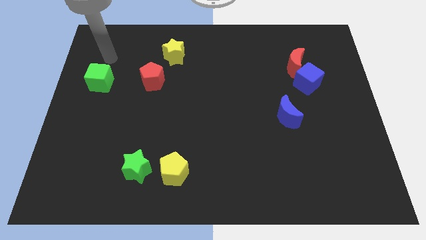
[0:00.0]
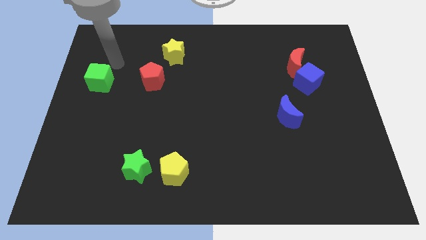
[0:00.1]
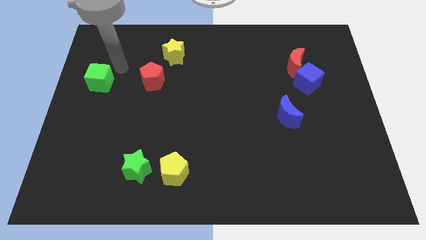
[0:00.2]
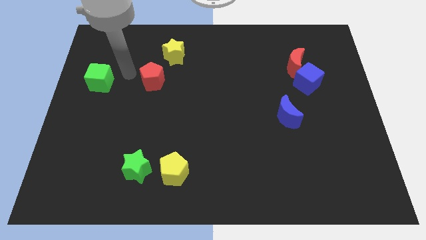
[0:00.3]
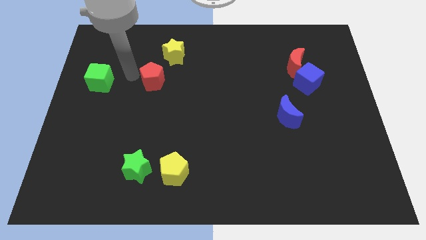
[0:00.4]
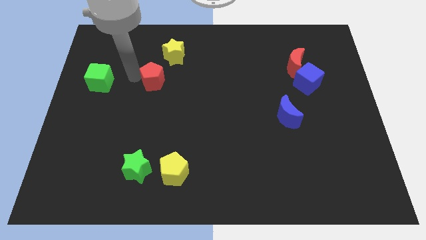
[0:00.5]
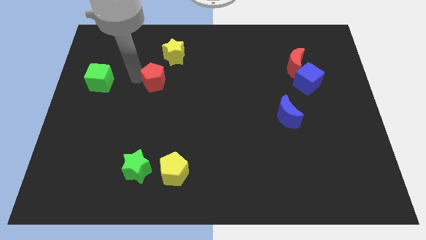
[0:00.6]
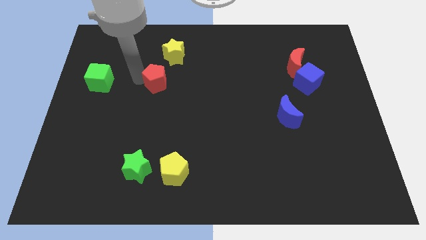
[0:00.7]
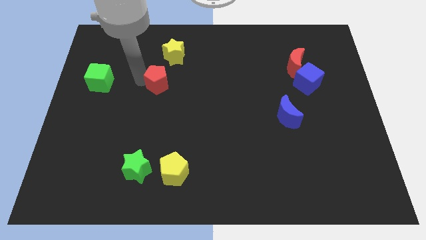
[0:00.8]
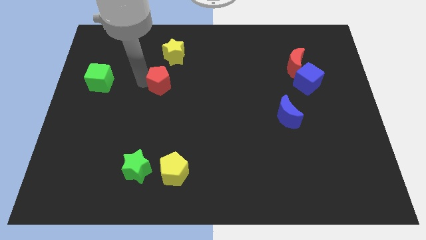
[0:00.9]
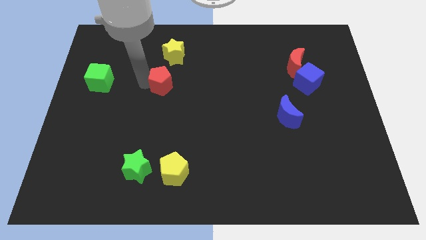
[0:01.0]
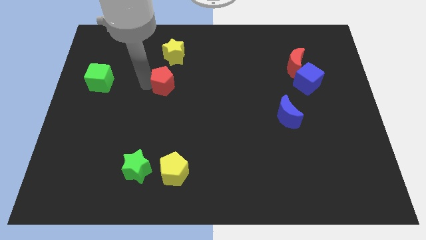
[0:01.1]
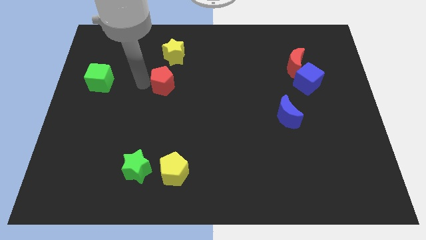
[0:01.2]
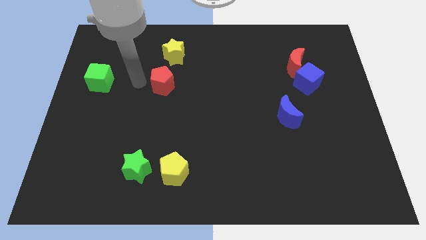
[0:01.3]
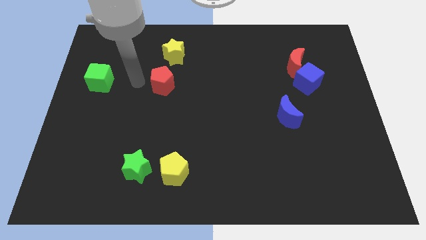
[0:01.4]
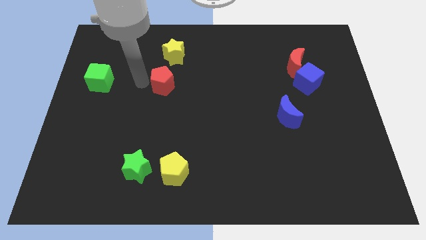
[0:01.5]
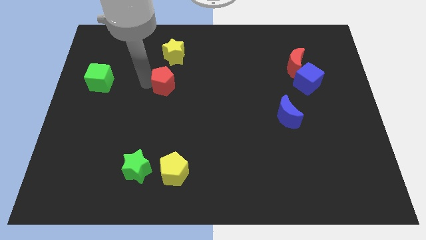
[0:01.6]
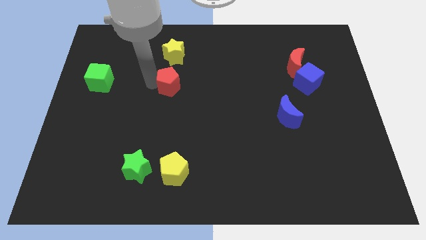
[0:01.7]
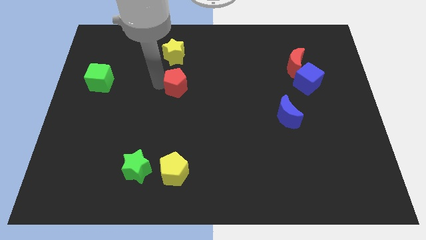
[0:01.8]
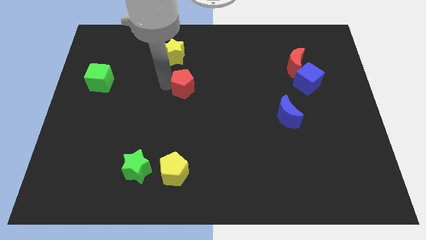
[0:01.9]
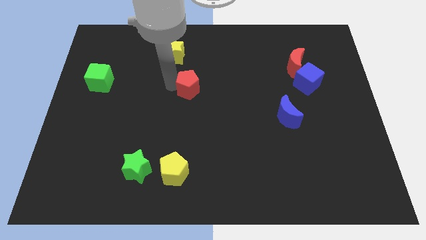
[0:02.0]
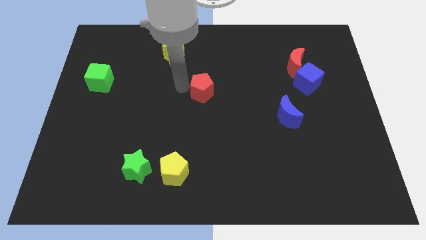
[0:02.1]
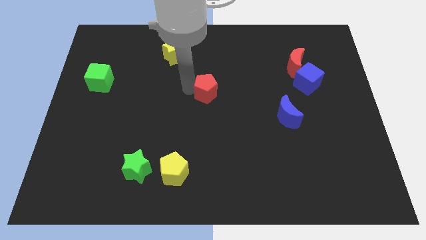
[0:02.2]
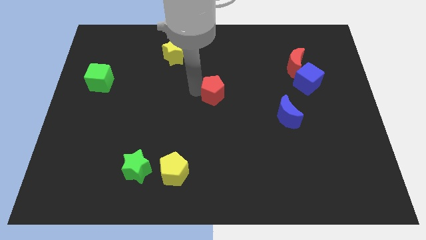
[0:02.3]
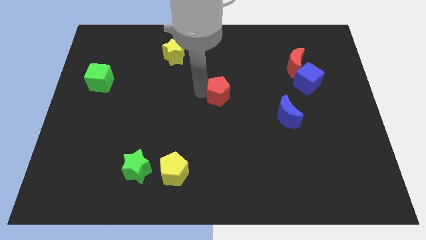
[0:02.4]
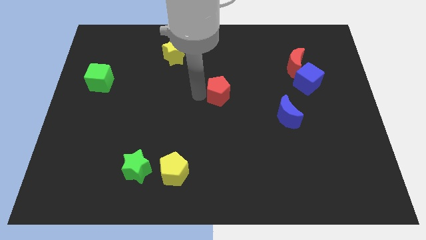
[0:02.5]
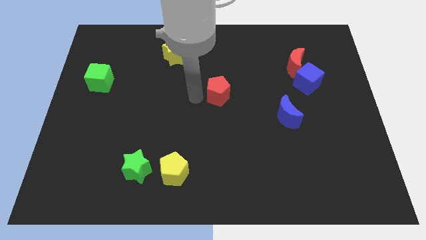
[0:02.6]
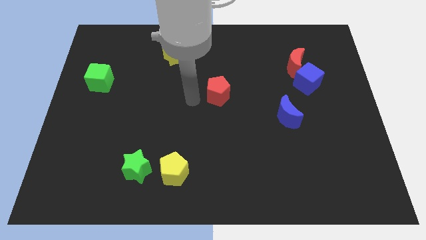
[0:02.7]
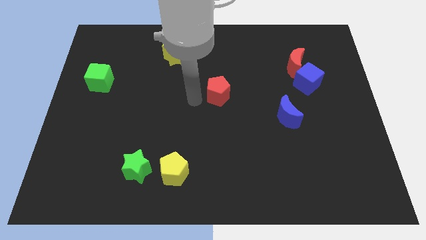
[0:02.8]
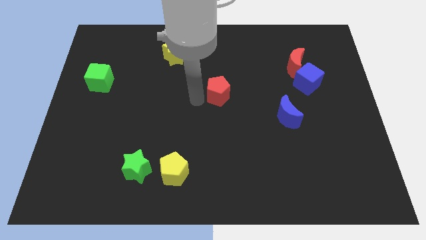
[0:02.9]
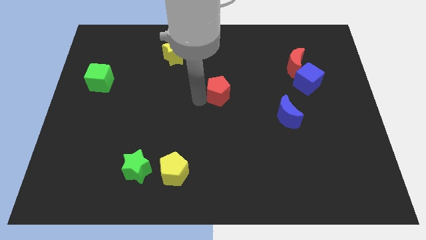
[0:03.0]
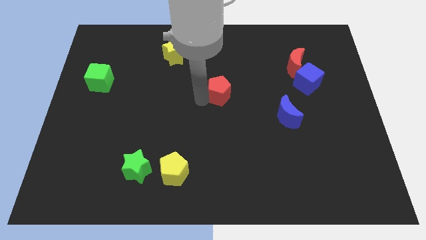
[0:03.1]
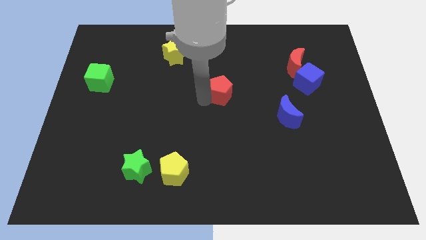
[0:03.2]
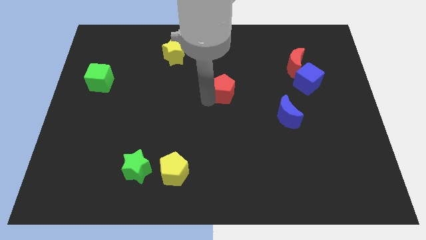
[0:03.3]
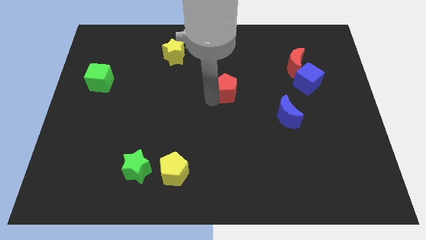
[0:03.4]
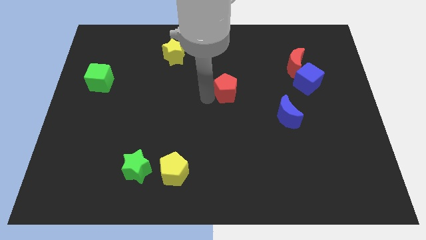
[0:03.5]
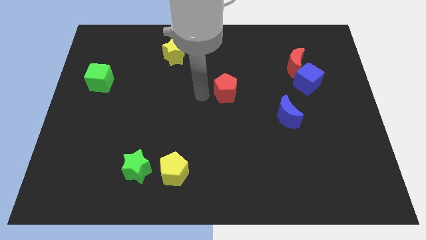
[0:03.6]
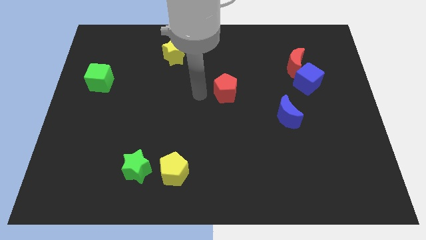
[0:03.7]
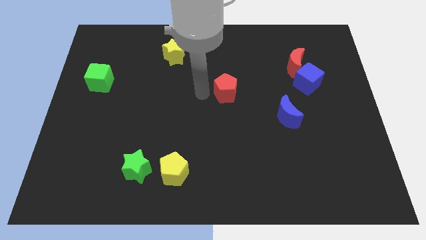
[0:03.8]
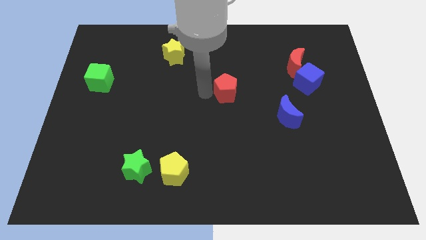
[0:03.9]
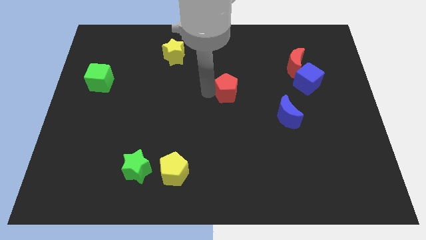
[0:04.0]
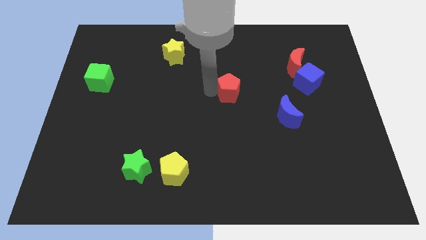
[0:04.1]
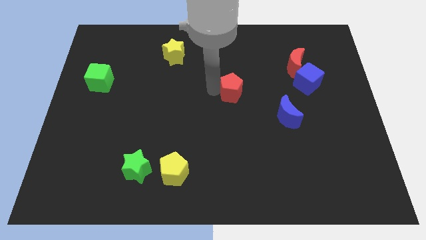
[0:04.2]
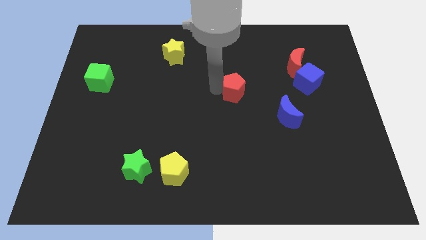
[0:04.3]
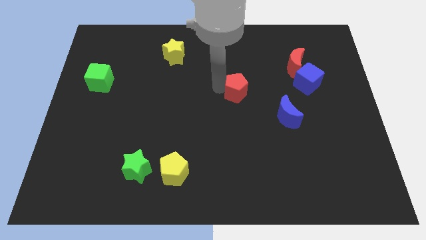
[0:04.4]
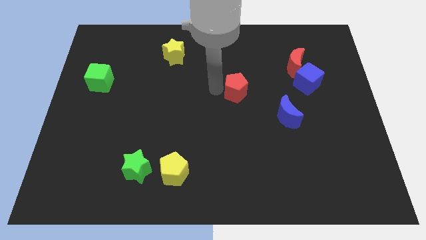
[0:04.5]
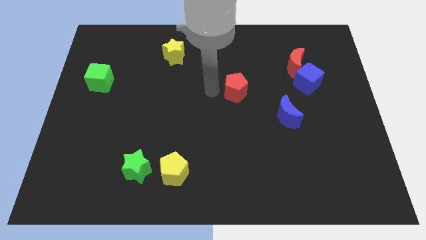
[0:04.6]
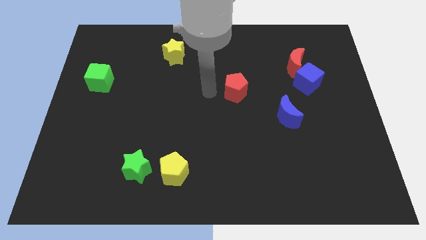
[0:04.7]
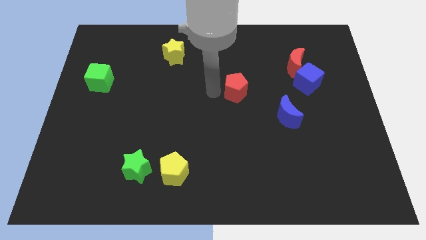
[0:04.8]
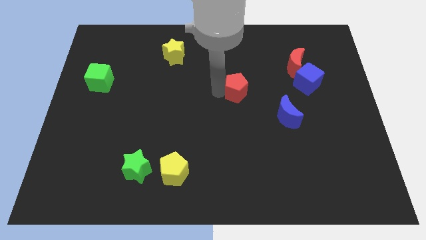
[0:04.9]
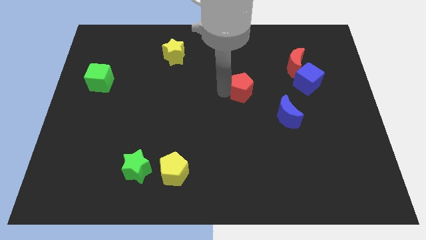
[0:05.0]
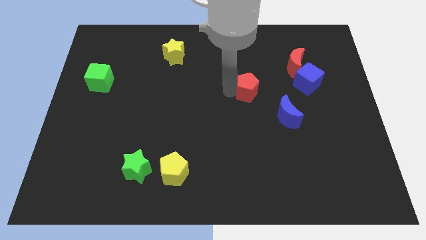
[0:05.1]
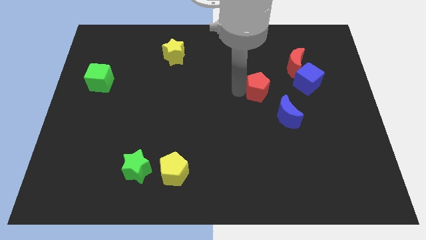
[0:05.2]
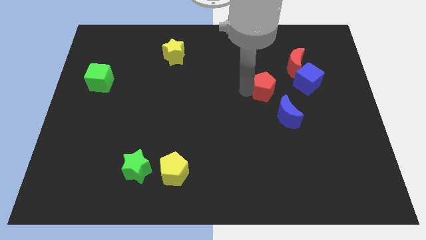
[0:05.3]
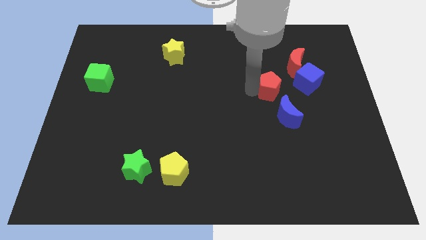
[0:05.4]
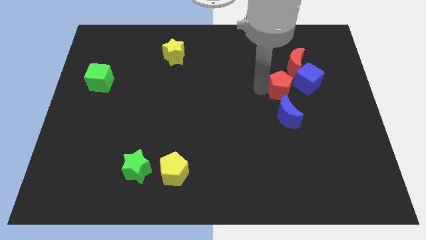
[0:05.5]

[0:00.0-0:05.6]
slide the red pentagon to the bottom side of the red moon

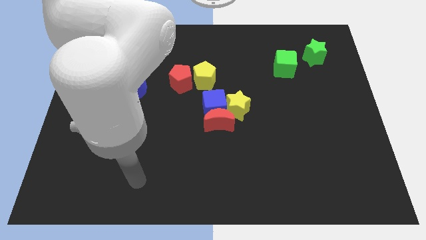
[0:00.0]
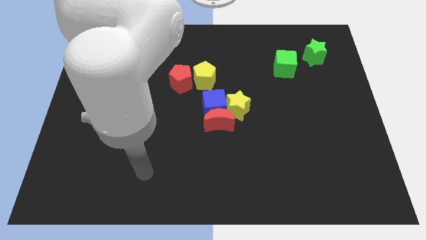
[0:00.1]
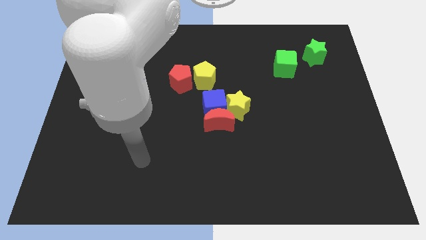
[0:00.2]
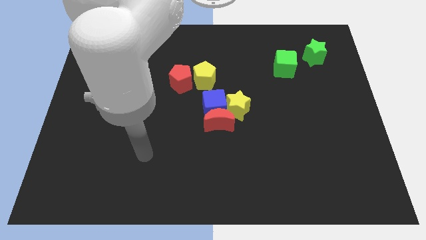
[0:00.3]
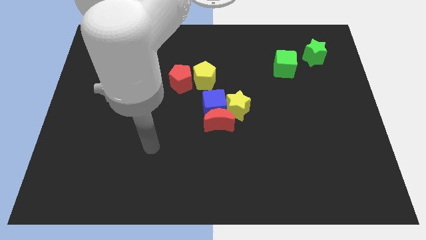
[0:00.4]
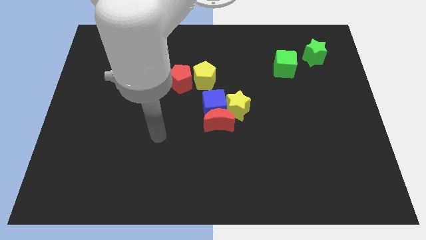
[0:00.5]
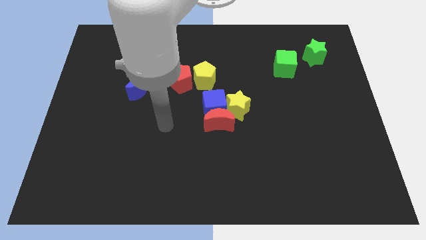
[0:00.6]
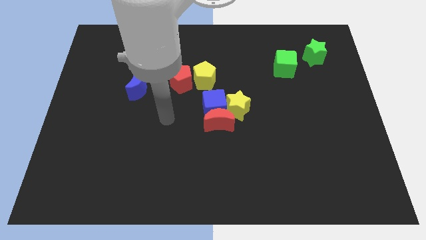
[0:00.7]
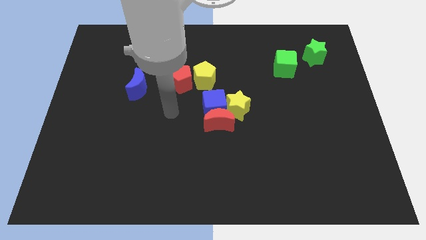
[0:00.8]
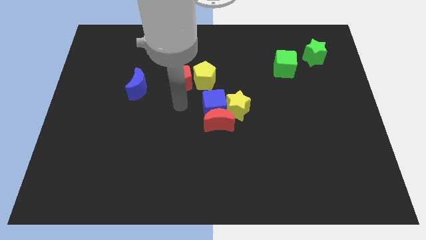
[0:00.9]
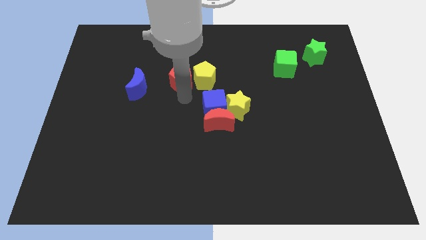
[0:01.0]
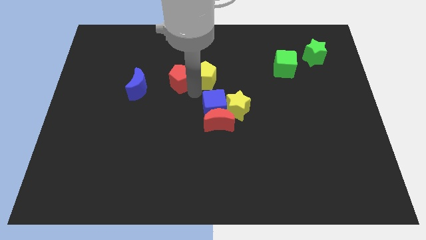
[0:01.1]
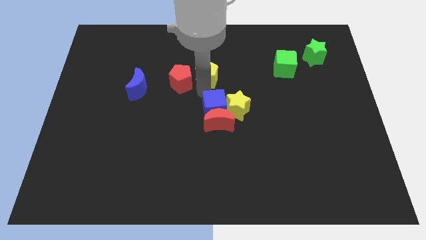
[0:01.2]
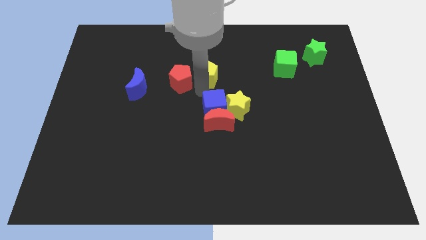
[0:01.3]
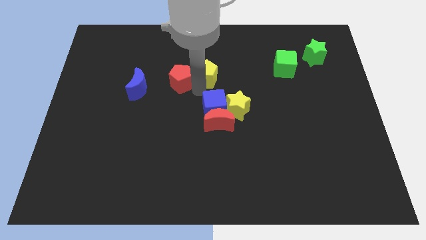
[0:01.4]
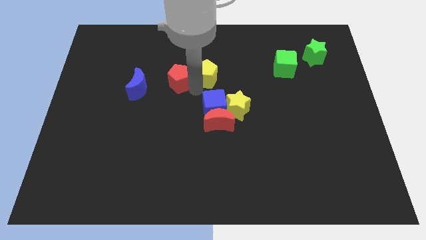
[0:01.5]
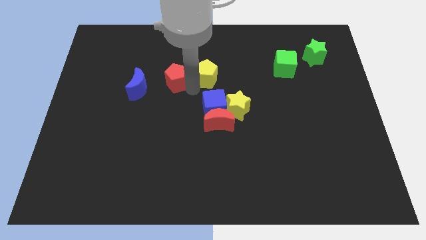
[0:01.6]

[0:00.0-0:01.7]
put the red pentagon diagonally up and to the right of the blue moon
